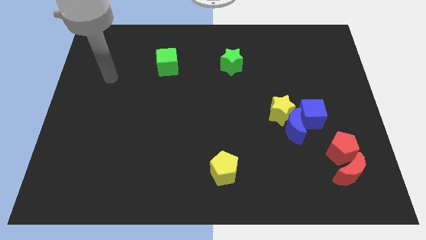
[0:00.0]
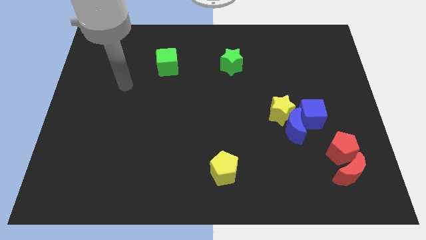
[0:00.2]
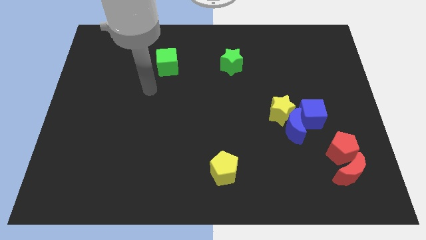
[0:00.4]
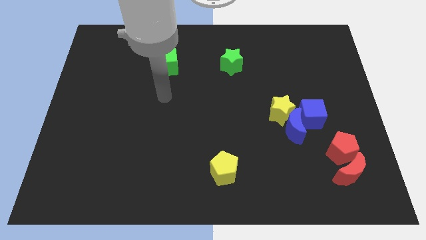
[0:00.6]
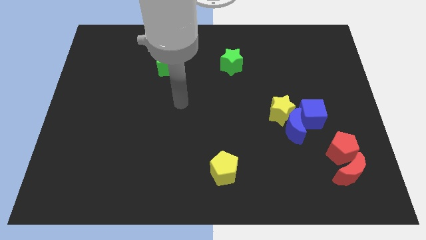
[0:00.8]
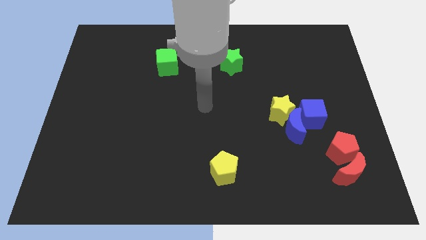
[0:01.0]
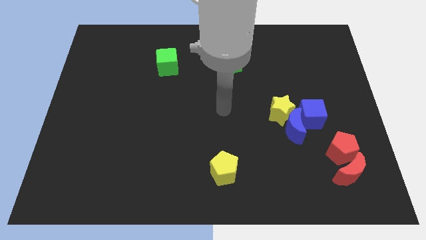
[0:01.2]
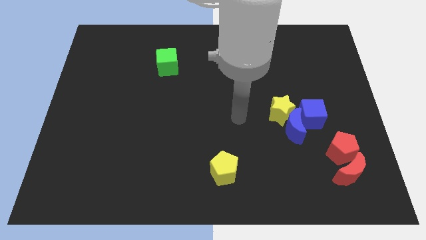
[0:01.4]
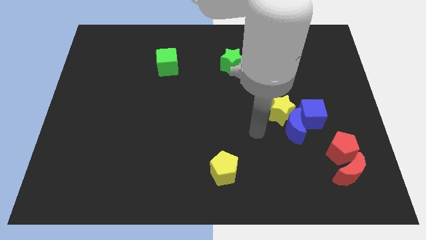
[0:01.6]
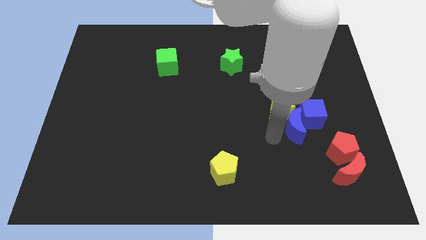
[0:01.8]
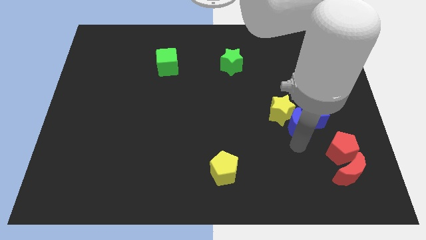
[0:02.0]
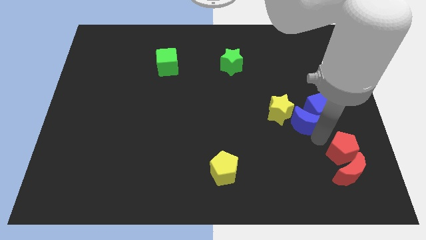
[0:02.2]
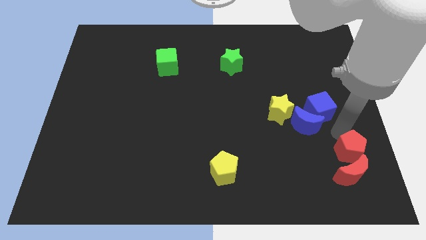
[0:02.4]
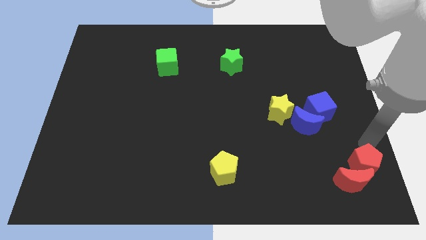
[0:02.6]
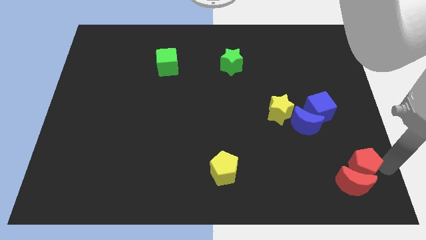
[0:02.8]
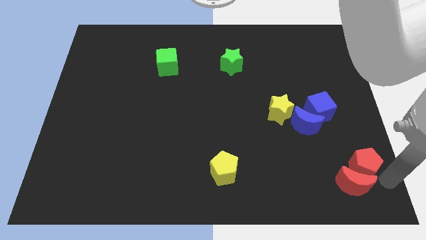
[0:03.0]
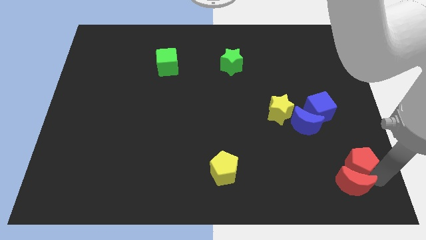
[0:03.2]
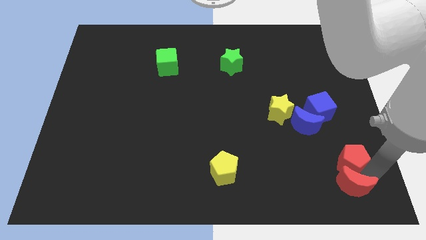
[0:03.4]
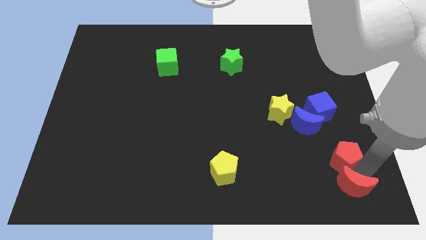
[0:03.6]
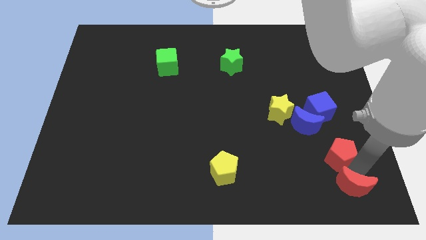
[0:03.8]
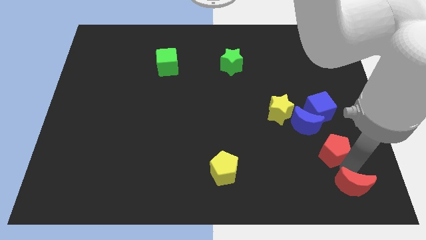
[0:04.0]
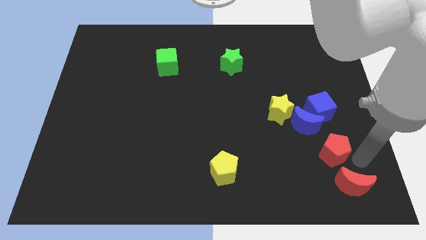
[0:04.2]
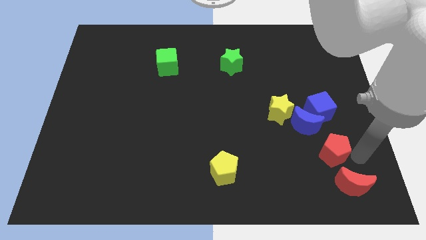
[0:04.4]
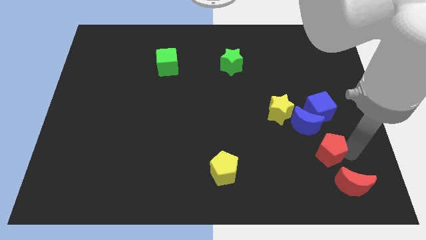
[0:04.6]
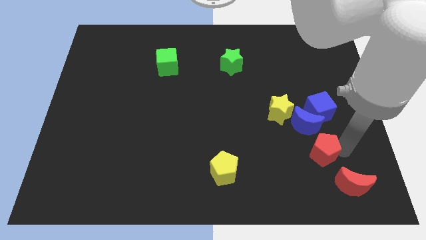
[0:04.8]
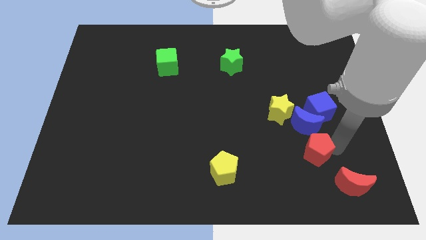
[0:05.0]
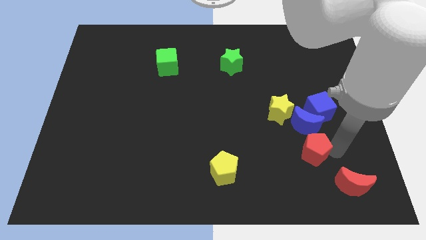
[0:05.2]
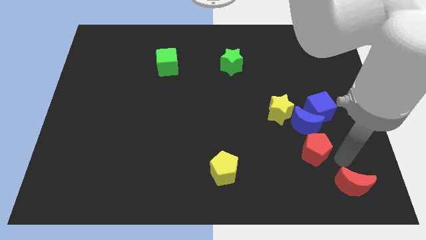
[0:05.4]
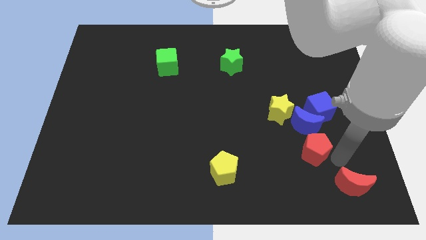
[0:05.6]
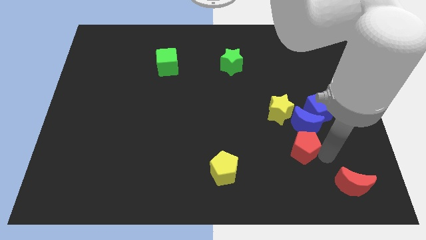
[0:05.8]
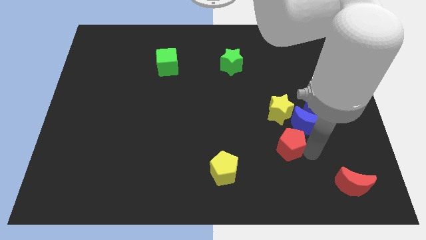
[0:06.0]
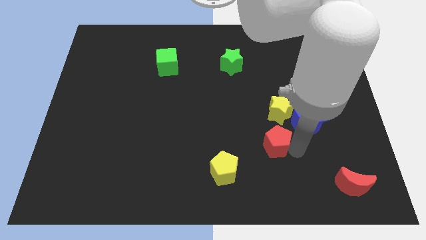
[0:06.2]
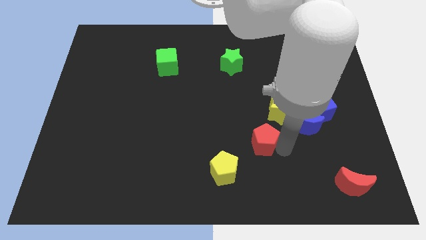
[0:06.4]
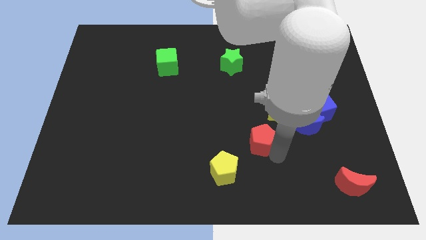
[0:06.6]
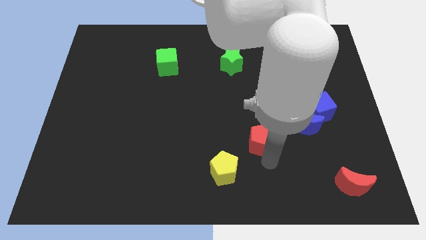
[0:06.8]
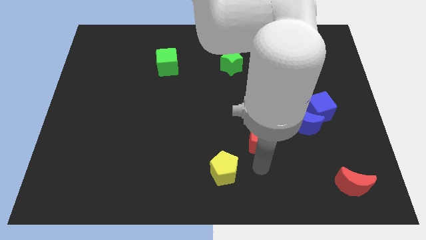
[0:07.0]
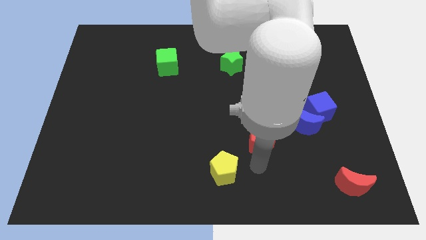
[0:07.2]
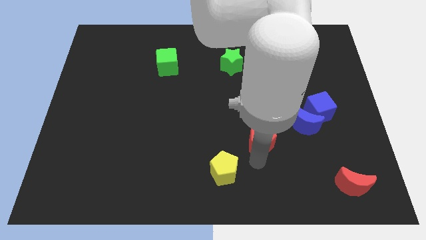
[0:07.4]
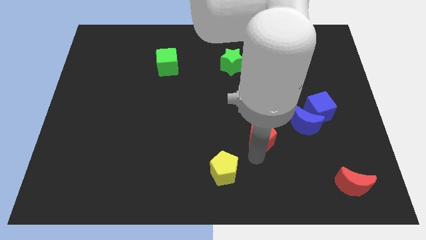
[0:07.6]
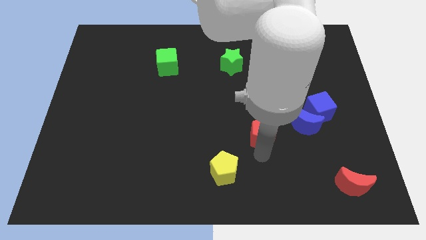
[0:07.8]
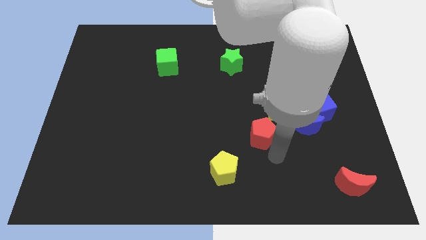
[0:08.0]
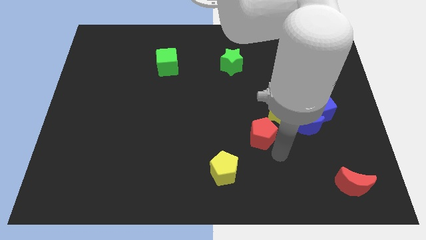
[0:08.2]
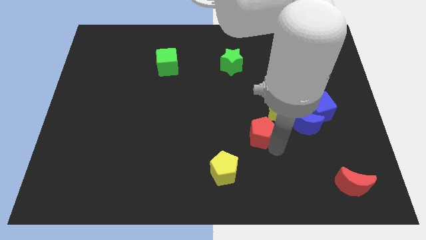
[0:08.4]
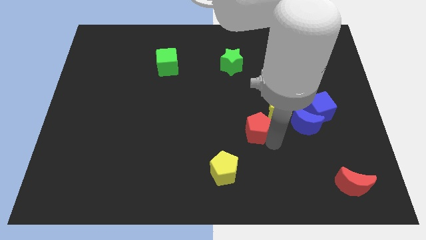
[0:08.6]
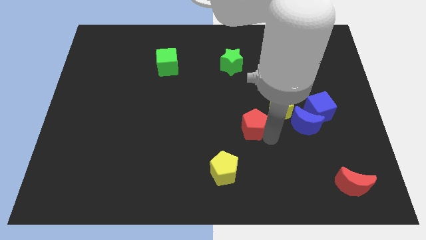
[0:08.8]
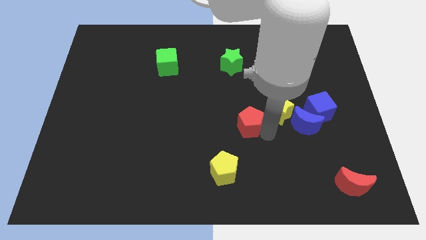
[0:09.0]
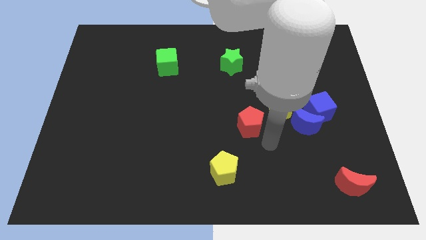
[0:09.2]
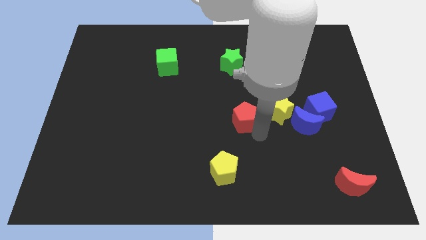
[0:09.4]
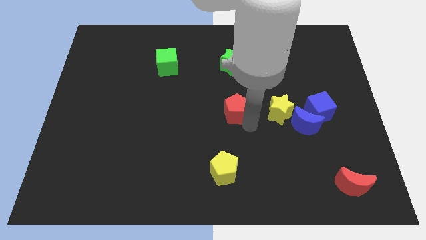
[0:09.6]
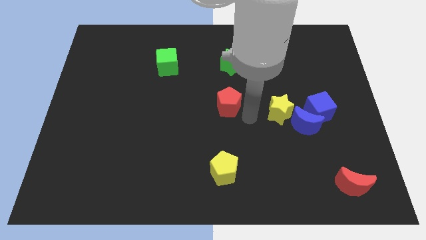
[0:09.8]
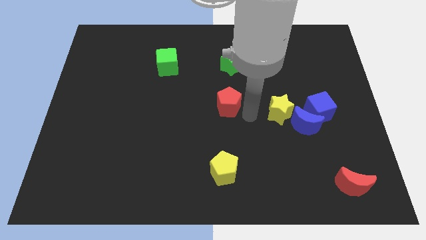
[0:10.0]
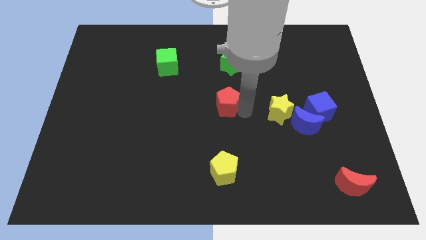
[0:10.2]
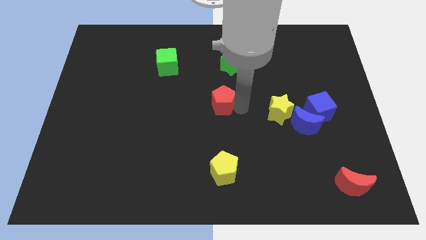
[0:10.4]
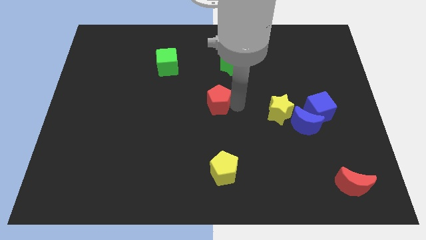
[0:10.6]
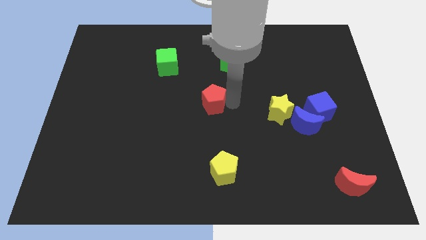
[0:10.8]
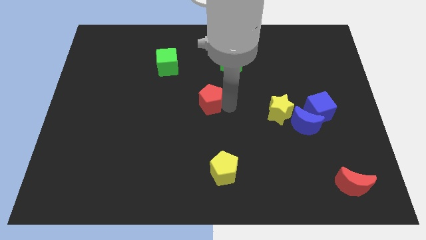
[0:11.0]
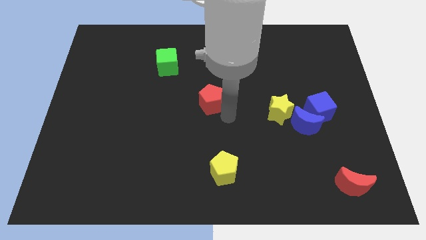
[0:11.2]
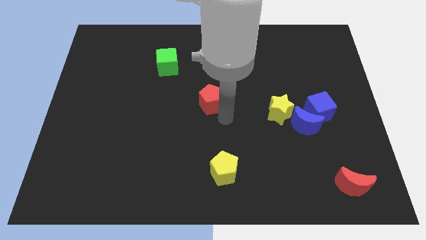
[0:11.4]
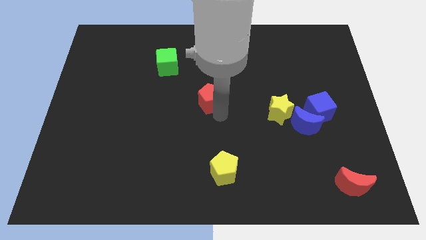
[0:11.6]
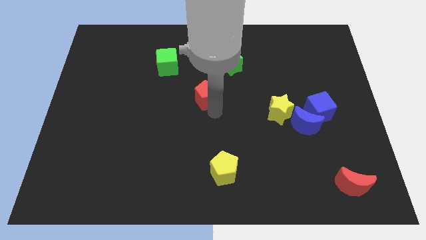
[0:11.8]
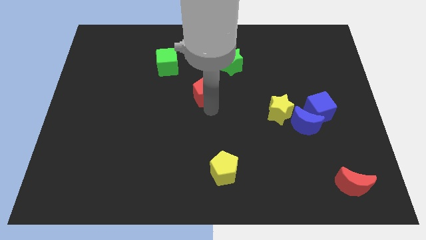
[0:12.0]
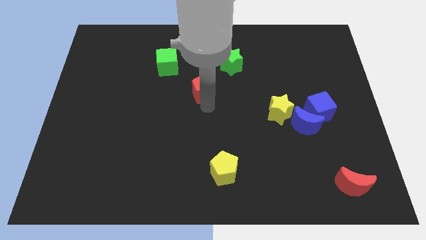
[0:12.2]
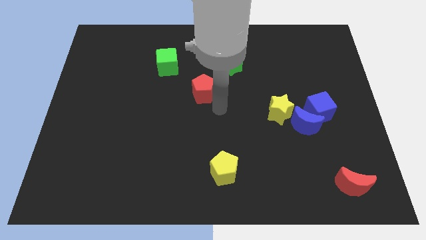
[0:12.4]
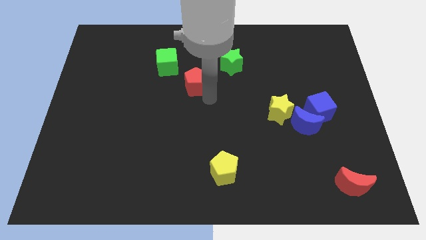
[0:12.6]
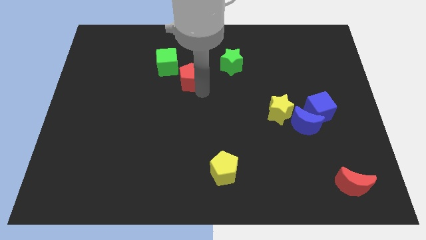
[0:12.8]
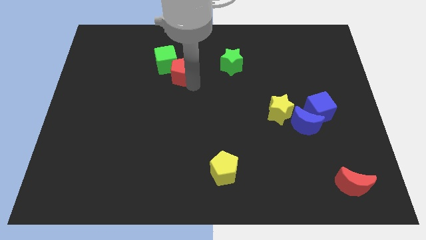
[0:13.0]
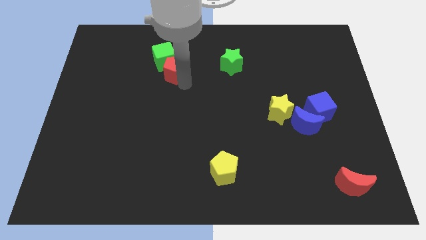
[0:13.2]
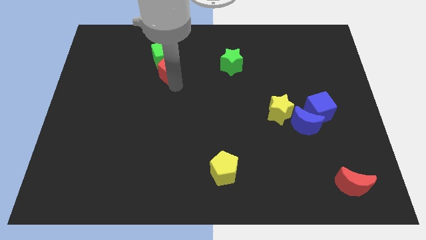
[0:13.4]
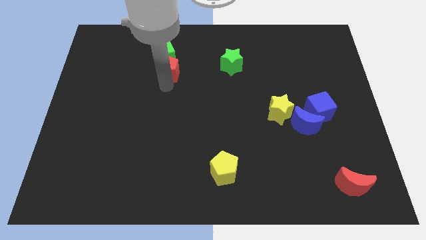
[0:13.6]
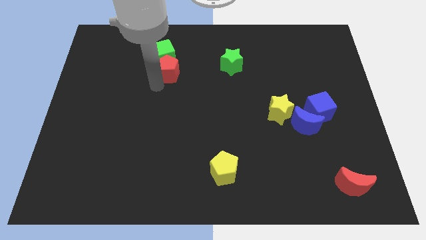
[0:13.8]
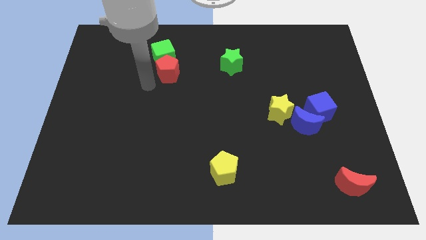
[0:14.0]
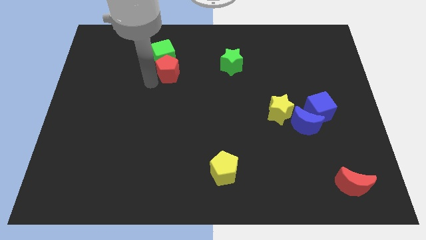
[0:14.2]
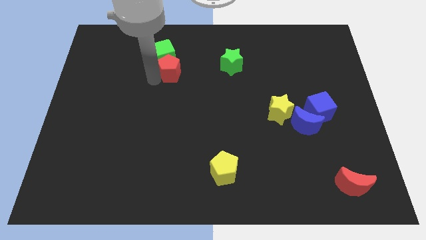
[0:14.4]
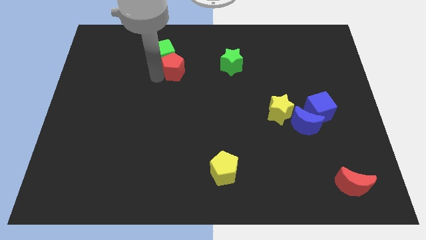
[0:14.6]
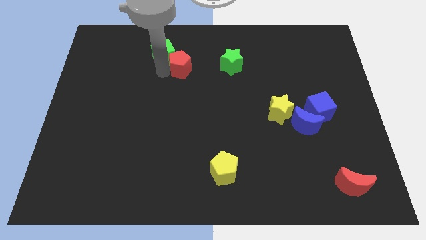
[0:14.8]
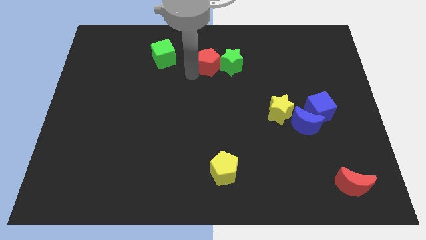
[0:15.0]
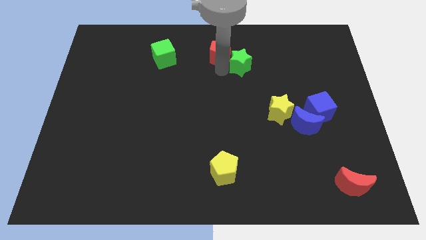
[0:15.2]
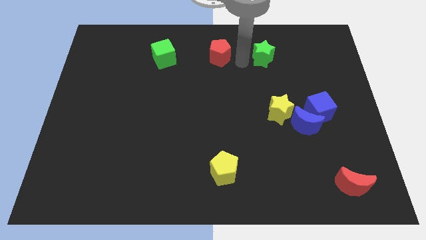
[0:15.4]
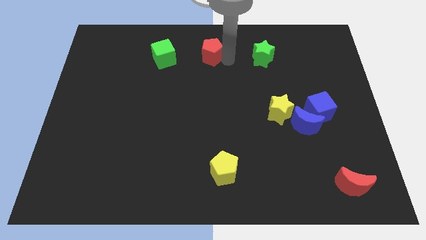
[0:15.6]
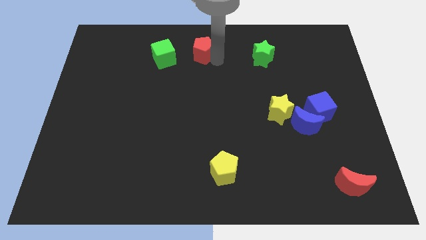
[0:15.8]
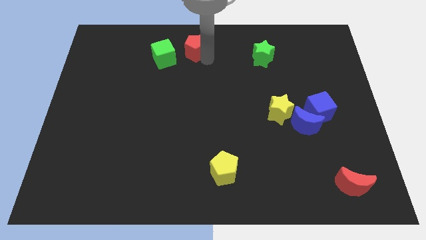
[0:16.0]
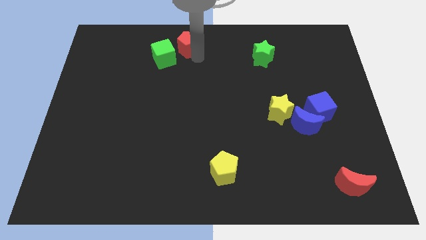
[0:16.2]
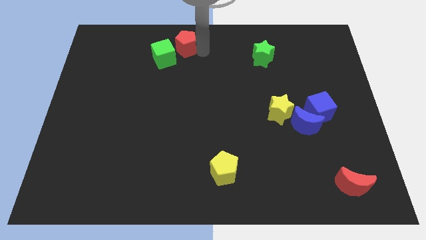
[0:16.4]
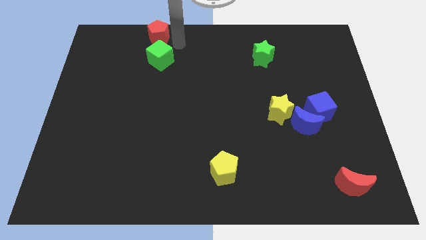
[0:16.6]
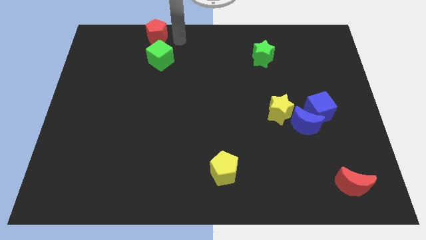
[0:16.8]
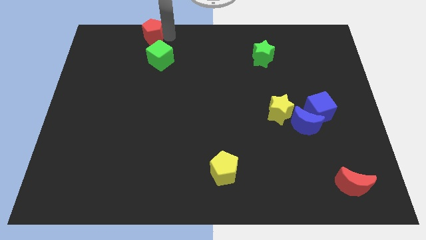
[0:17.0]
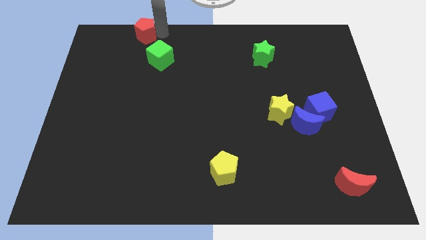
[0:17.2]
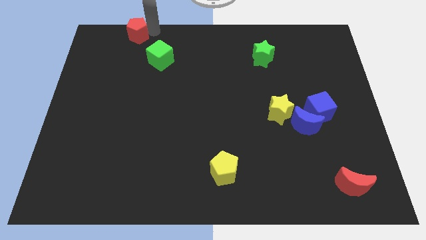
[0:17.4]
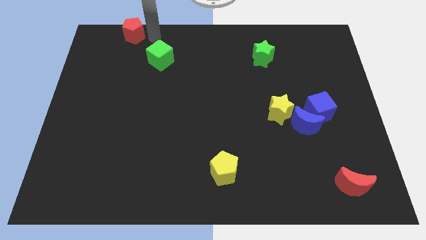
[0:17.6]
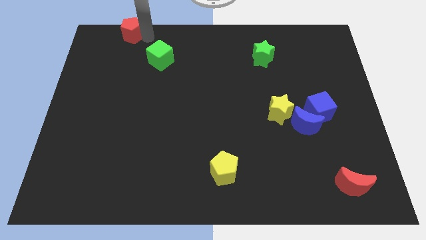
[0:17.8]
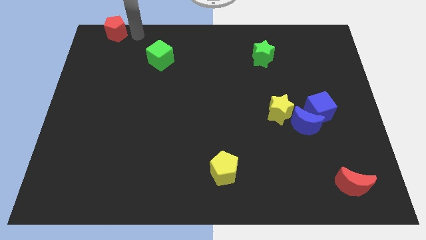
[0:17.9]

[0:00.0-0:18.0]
slide the red pentagon to the upper left corner
